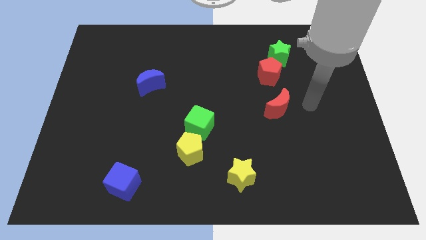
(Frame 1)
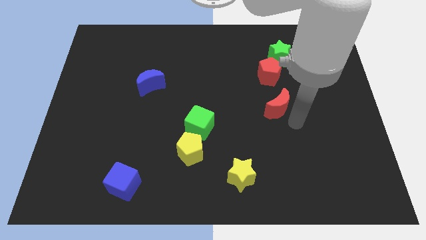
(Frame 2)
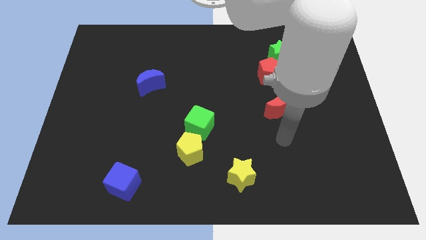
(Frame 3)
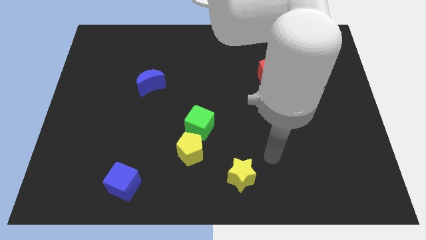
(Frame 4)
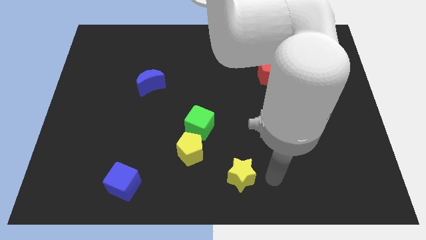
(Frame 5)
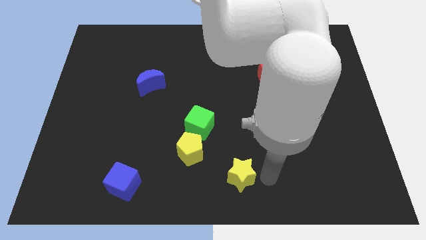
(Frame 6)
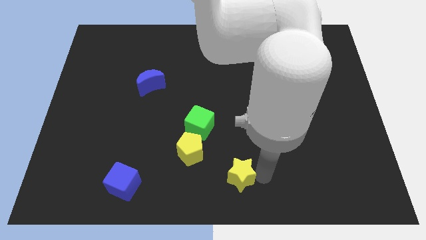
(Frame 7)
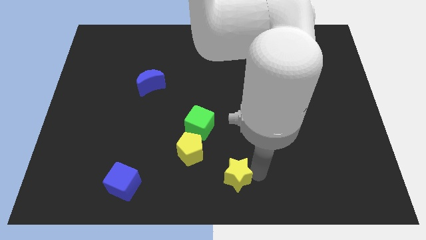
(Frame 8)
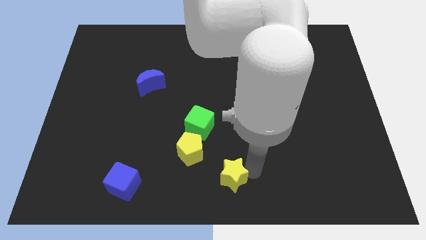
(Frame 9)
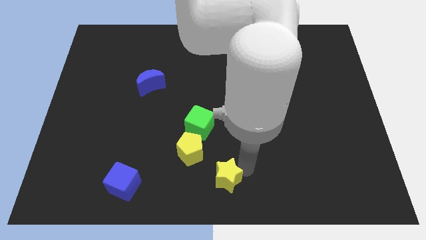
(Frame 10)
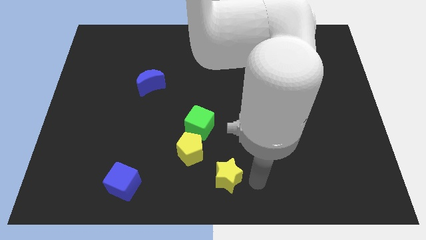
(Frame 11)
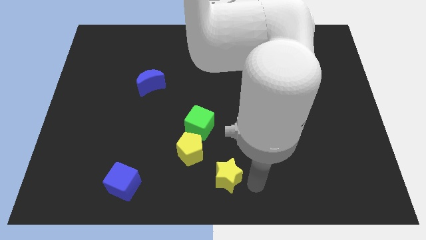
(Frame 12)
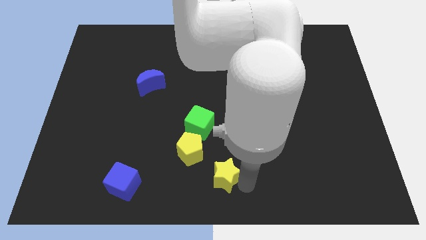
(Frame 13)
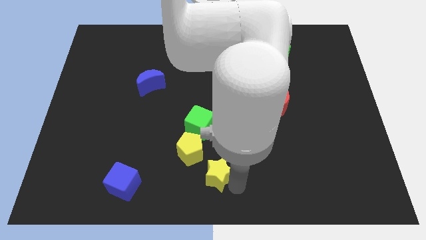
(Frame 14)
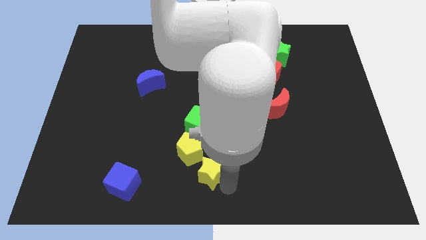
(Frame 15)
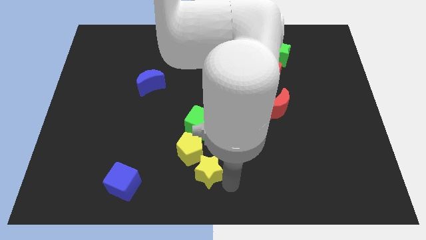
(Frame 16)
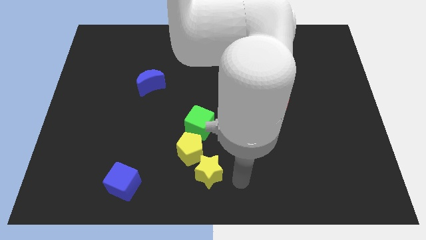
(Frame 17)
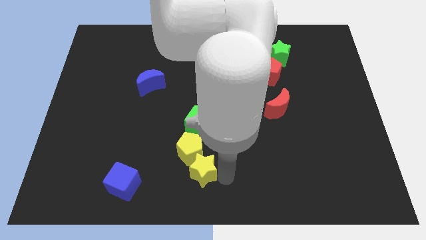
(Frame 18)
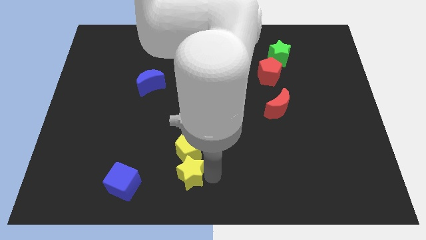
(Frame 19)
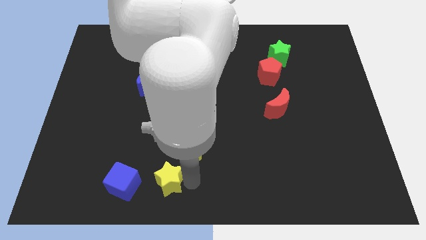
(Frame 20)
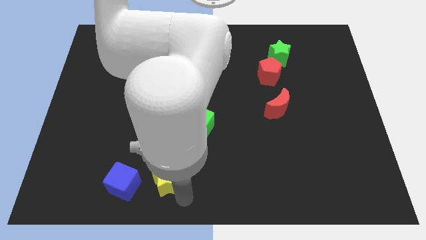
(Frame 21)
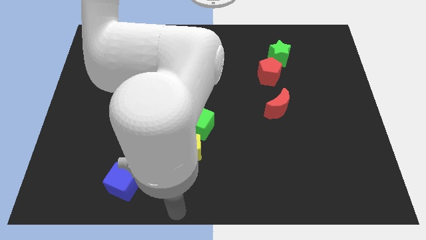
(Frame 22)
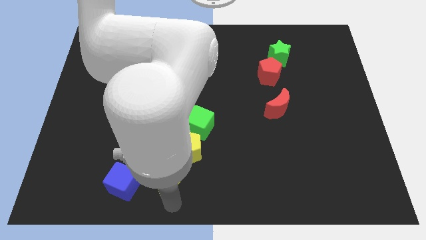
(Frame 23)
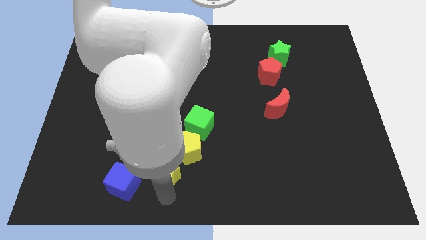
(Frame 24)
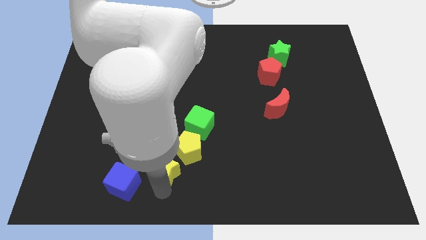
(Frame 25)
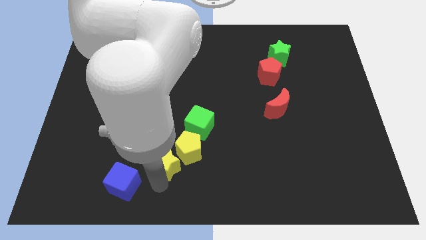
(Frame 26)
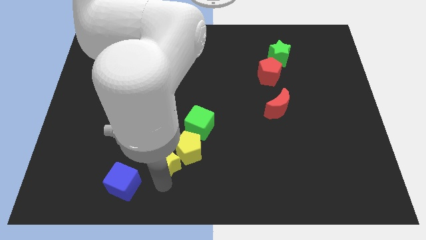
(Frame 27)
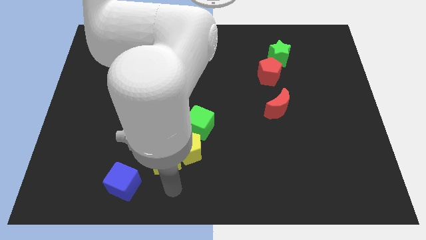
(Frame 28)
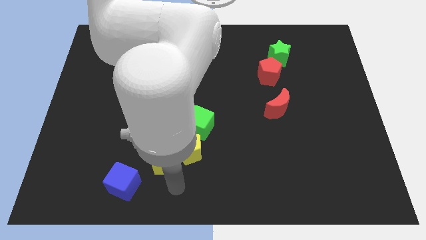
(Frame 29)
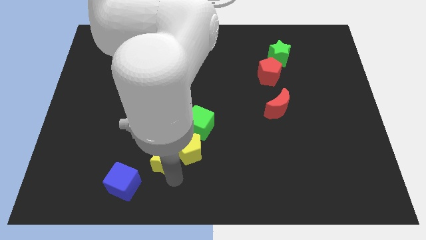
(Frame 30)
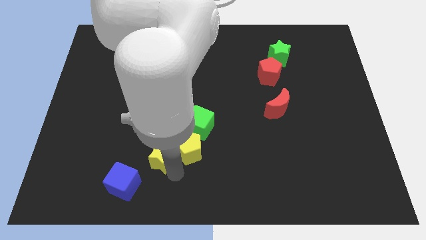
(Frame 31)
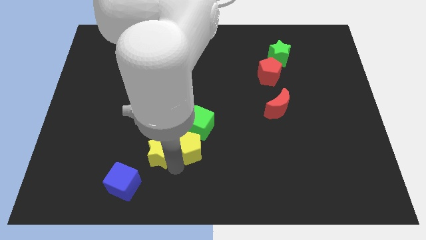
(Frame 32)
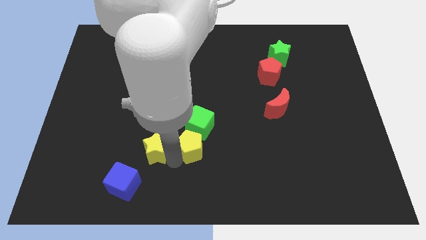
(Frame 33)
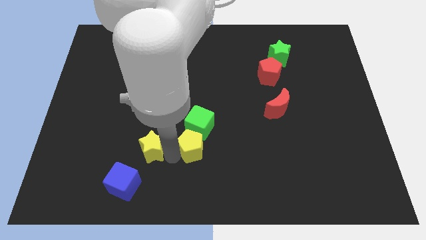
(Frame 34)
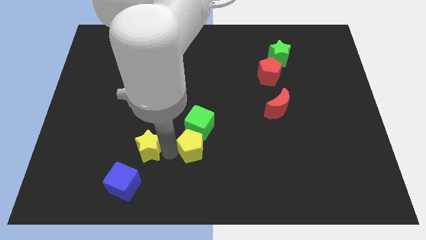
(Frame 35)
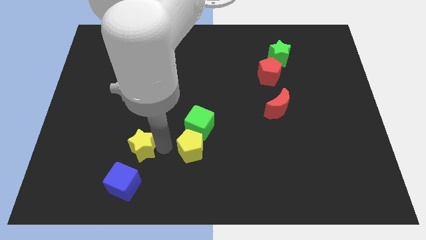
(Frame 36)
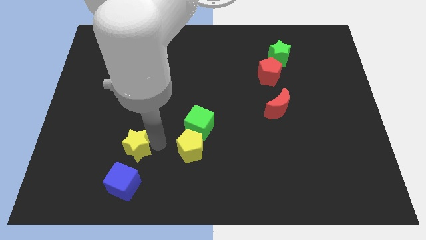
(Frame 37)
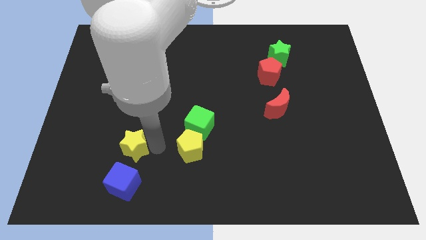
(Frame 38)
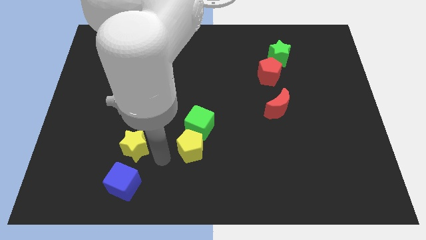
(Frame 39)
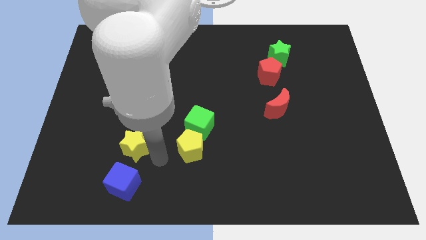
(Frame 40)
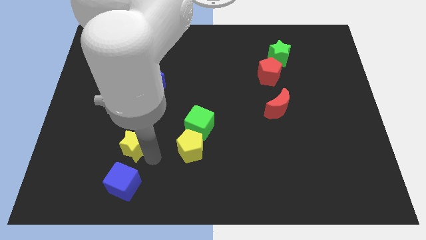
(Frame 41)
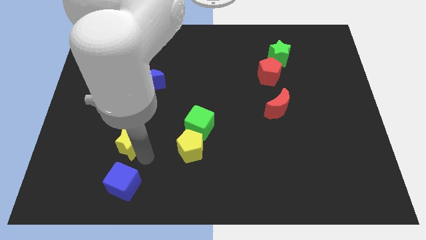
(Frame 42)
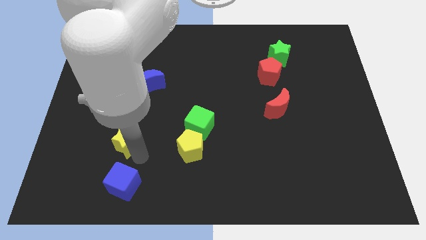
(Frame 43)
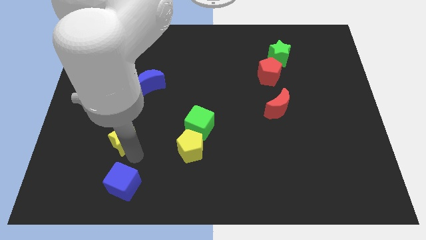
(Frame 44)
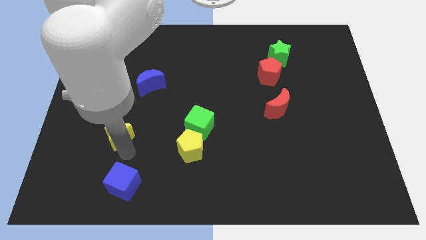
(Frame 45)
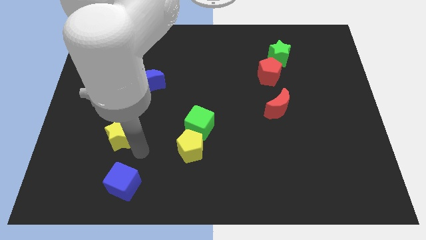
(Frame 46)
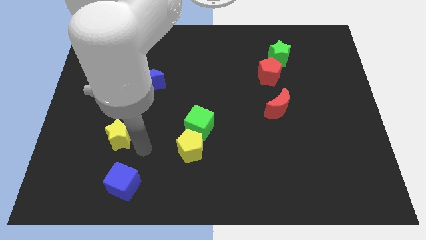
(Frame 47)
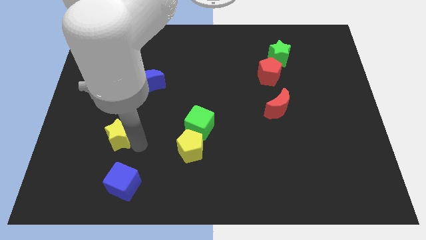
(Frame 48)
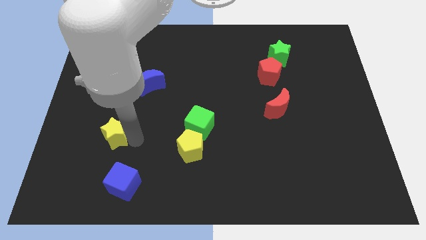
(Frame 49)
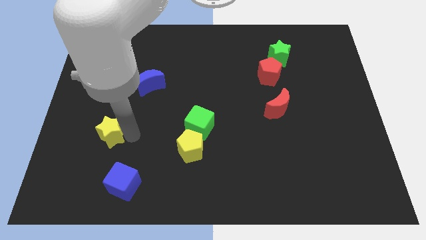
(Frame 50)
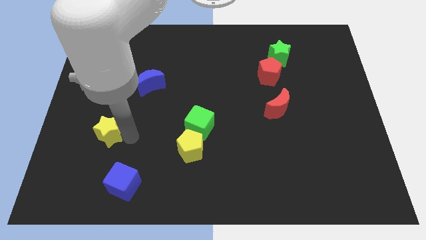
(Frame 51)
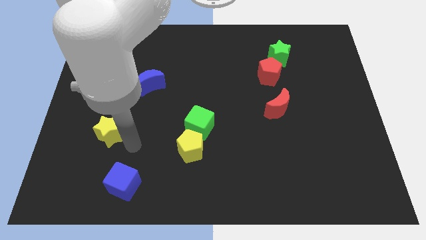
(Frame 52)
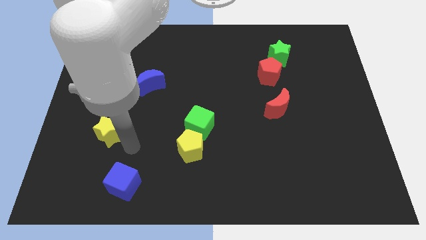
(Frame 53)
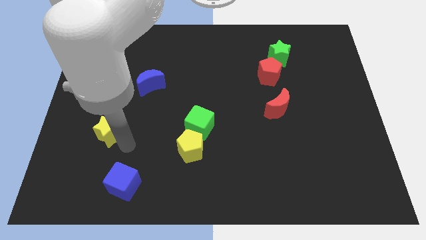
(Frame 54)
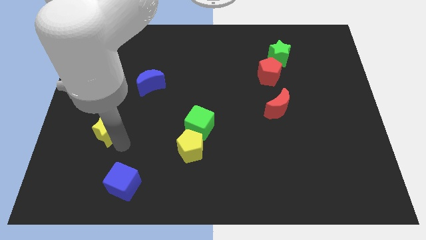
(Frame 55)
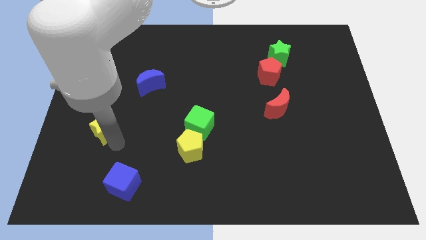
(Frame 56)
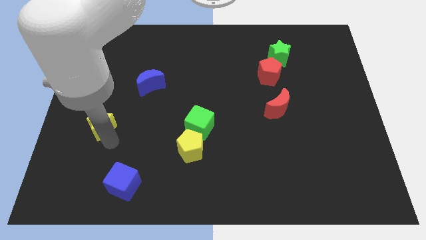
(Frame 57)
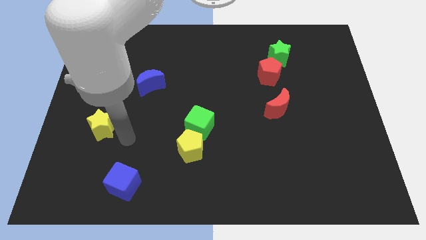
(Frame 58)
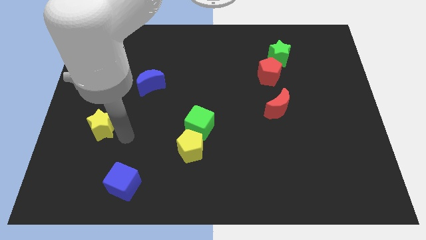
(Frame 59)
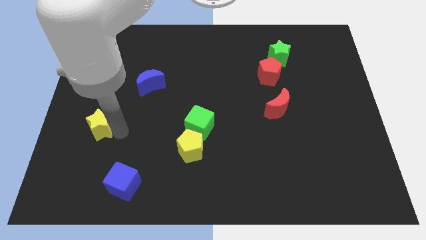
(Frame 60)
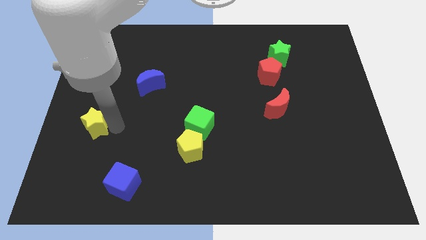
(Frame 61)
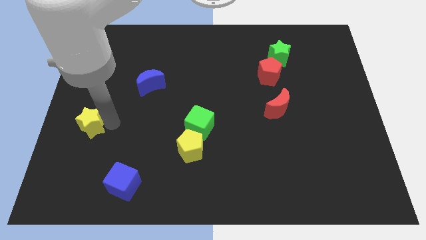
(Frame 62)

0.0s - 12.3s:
put the yellow star to the center left

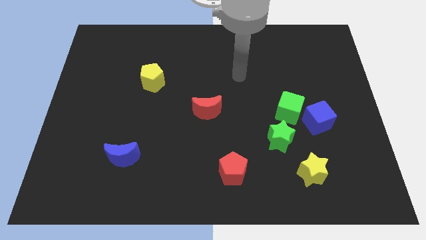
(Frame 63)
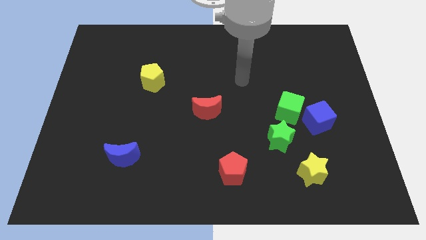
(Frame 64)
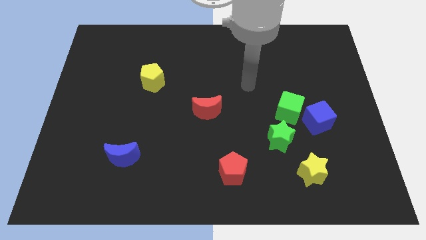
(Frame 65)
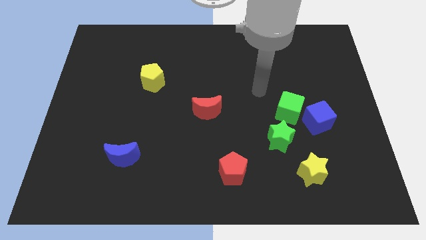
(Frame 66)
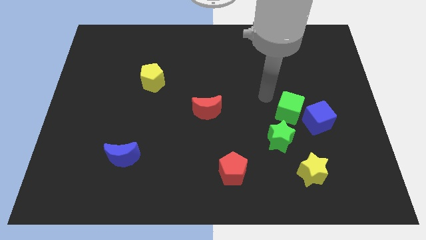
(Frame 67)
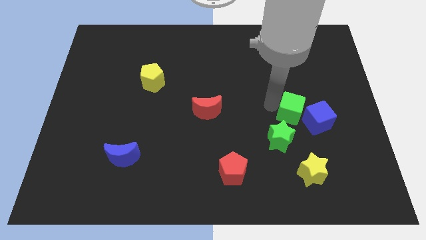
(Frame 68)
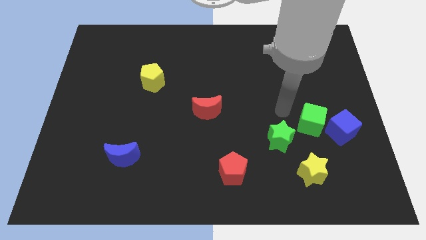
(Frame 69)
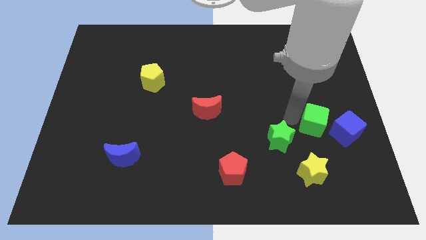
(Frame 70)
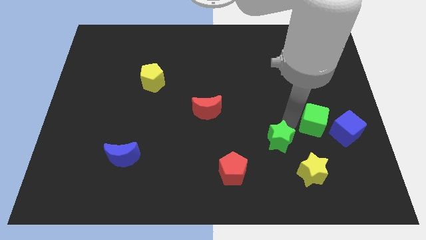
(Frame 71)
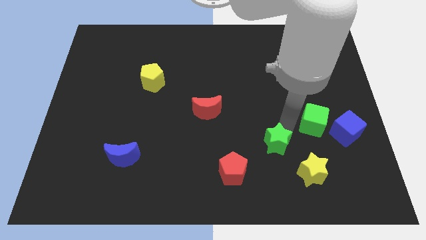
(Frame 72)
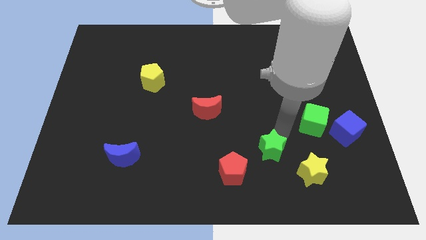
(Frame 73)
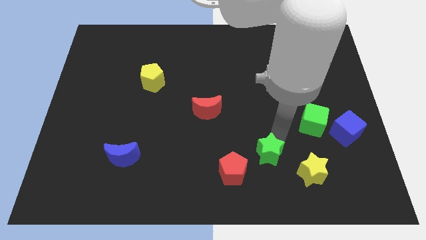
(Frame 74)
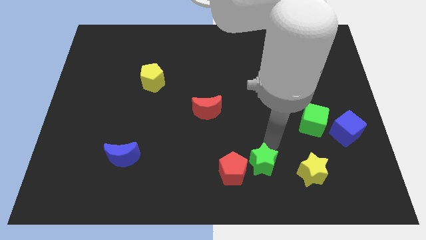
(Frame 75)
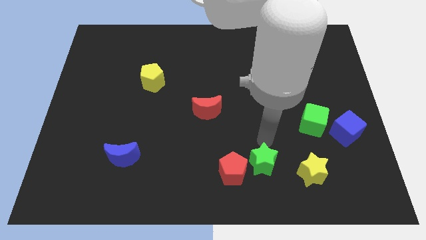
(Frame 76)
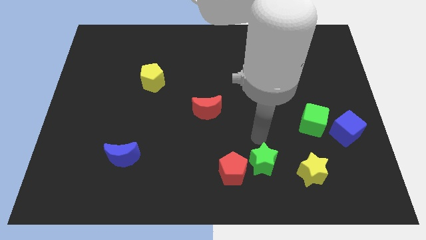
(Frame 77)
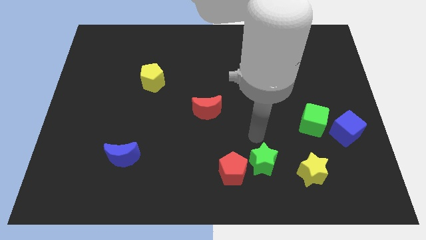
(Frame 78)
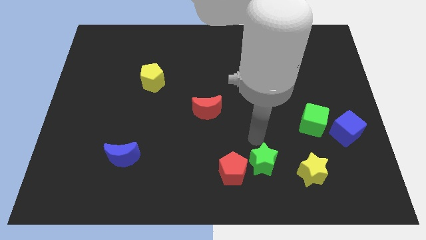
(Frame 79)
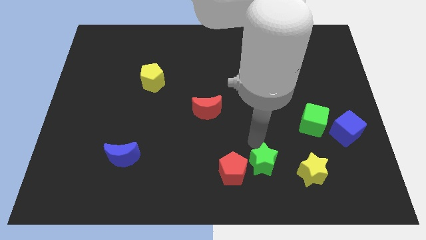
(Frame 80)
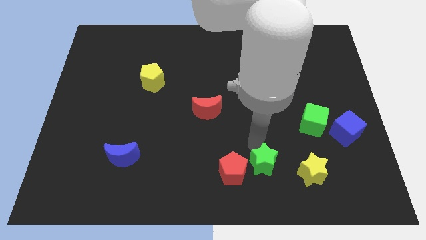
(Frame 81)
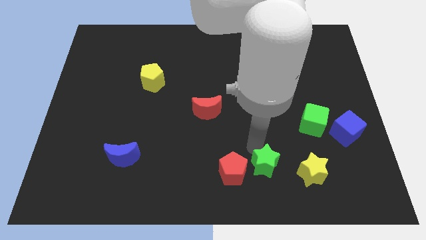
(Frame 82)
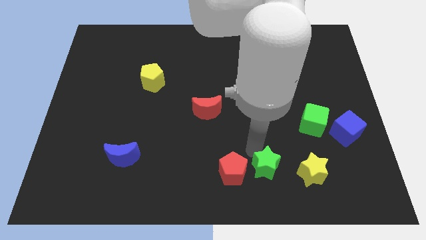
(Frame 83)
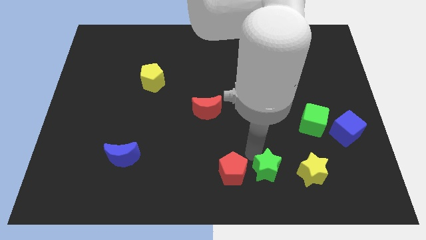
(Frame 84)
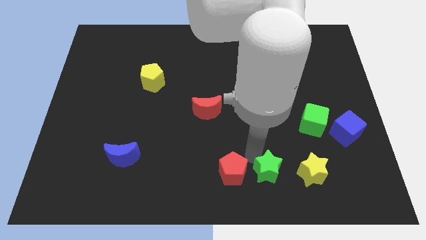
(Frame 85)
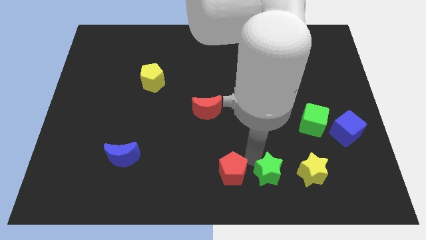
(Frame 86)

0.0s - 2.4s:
put the green star to the bottom side
